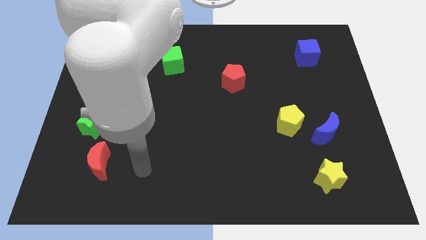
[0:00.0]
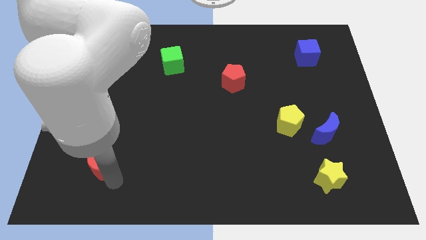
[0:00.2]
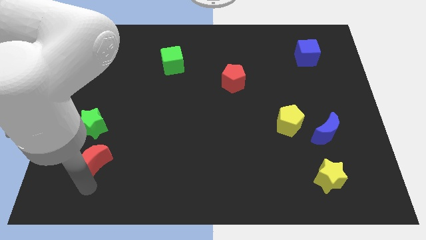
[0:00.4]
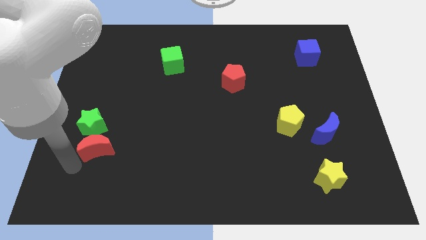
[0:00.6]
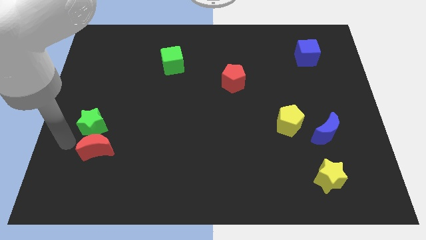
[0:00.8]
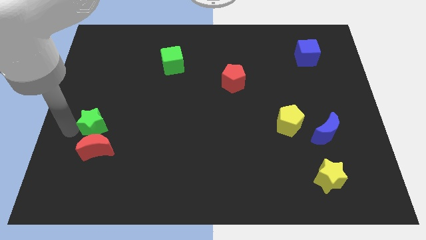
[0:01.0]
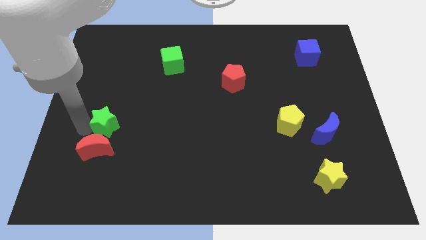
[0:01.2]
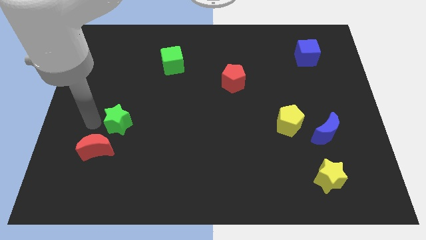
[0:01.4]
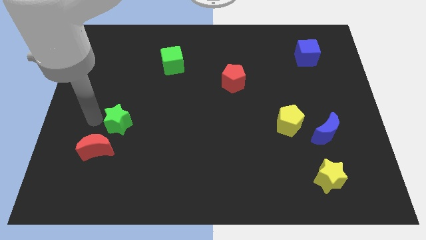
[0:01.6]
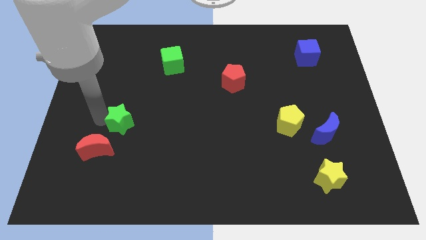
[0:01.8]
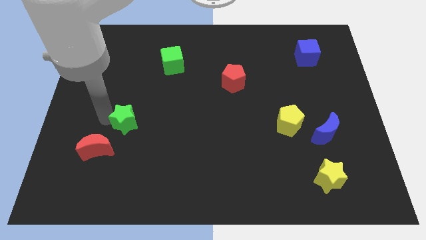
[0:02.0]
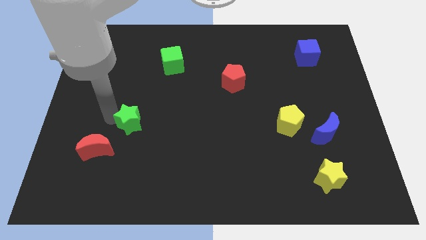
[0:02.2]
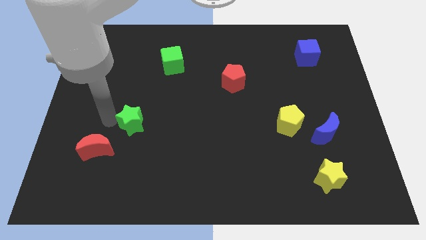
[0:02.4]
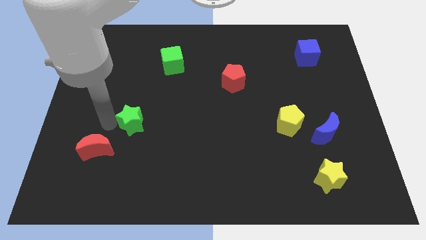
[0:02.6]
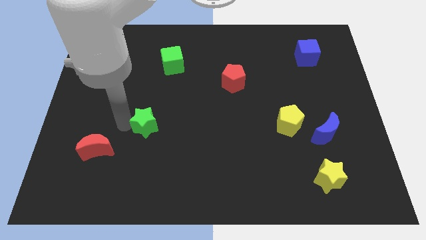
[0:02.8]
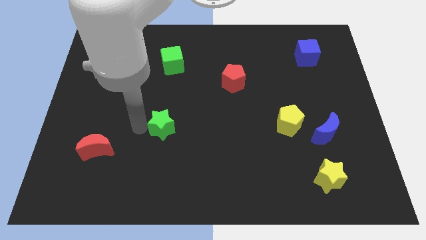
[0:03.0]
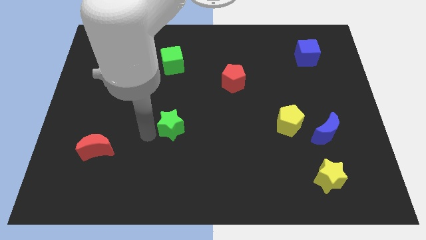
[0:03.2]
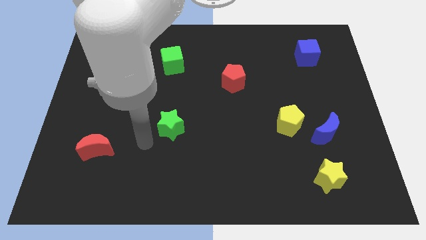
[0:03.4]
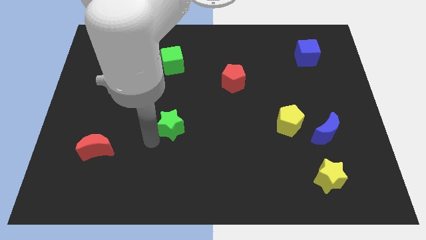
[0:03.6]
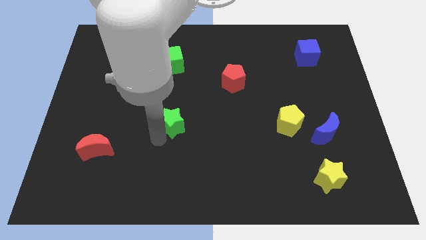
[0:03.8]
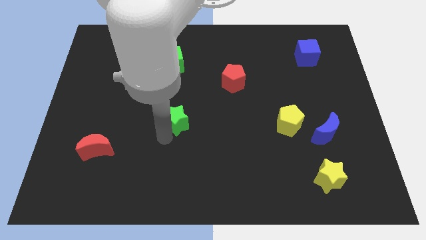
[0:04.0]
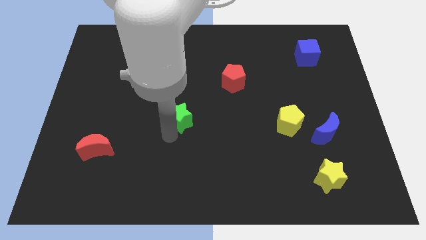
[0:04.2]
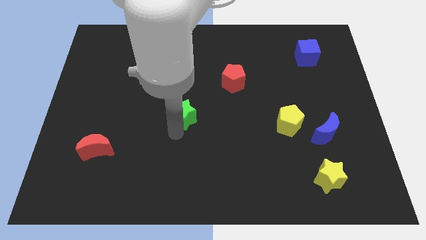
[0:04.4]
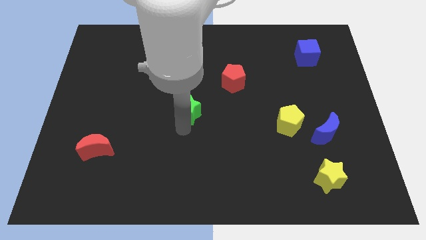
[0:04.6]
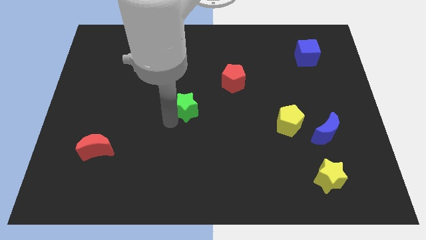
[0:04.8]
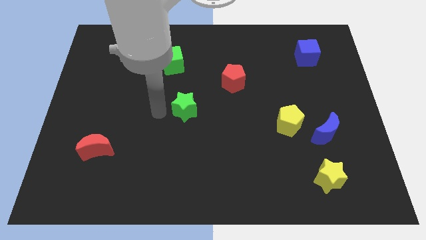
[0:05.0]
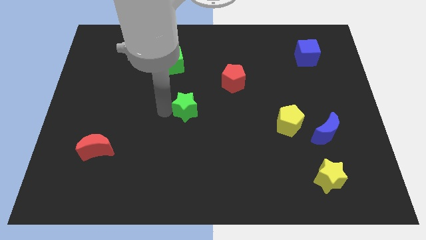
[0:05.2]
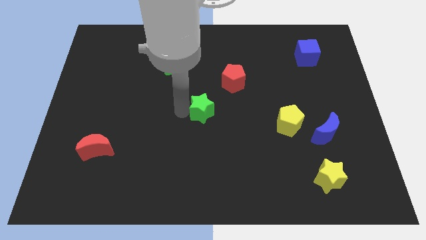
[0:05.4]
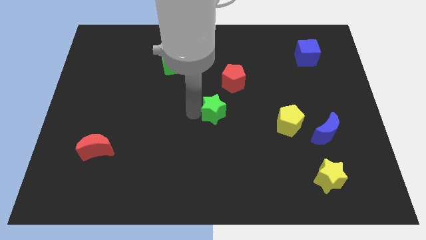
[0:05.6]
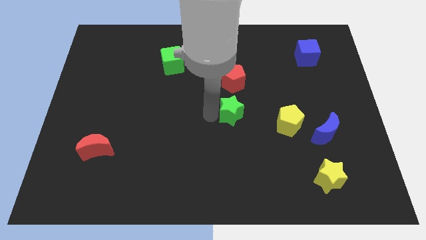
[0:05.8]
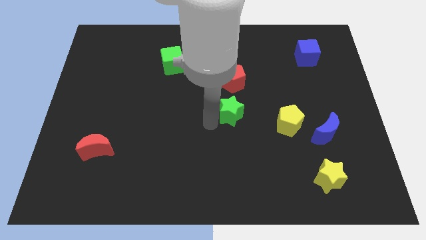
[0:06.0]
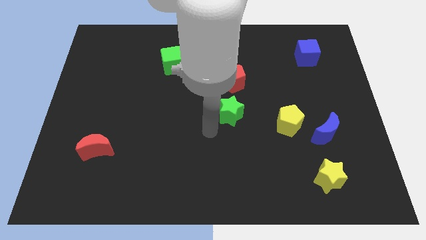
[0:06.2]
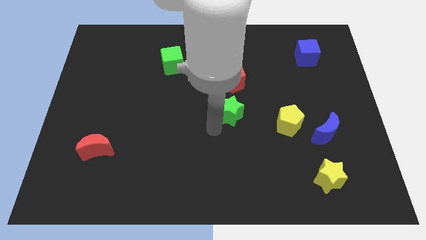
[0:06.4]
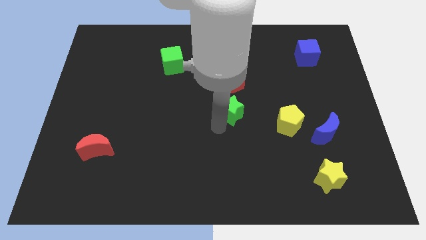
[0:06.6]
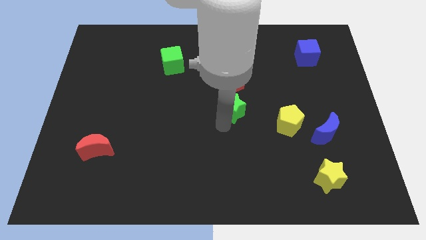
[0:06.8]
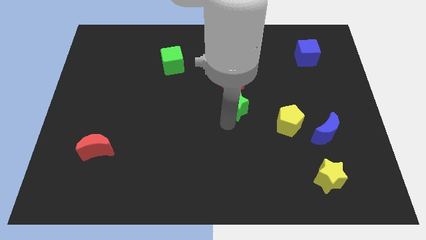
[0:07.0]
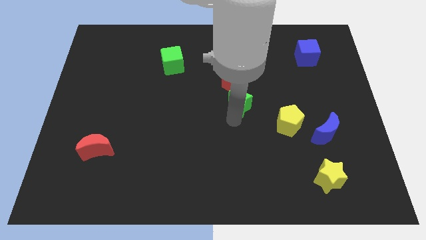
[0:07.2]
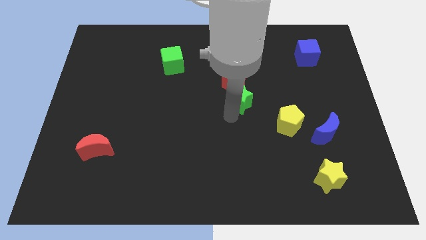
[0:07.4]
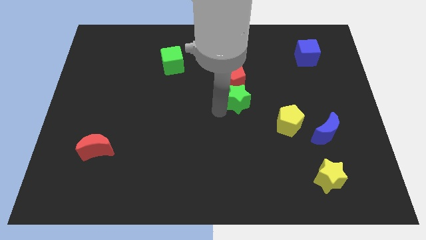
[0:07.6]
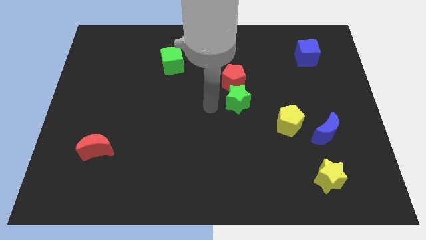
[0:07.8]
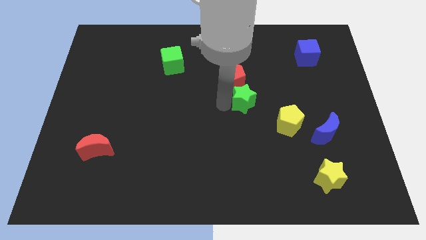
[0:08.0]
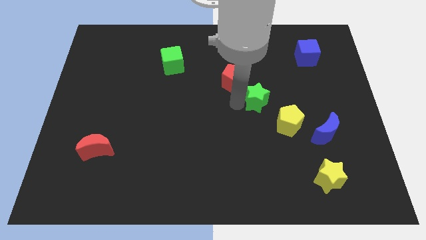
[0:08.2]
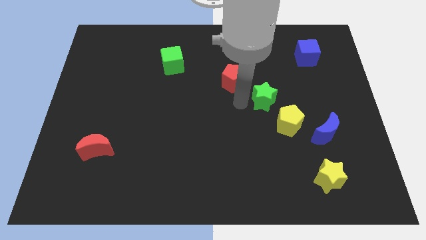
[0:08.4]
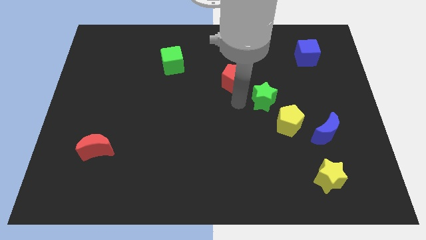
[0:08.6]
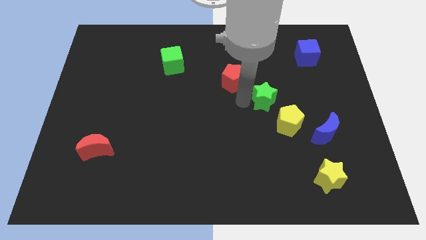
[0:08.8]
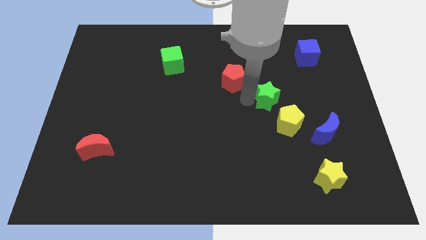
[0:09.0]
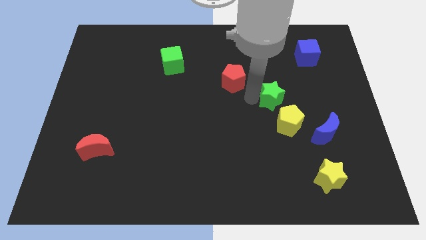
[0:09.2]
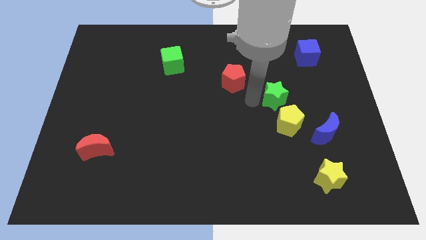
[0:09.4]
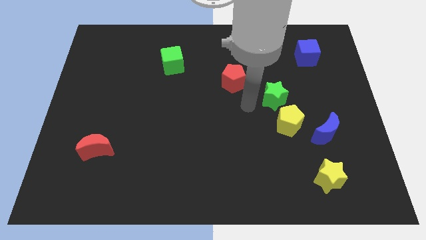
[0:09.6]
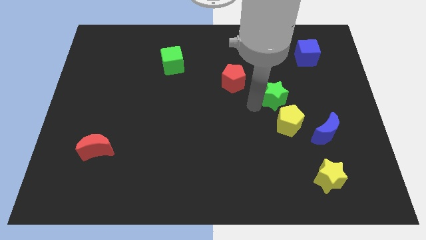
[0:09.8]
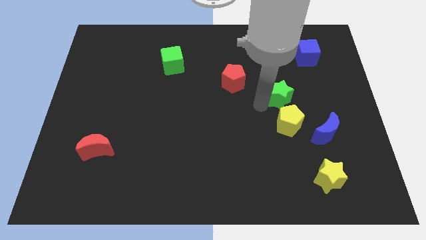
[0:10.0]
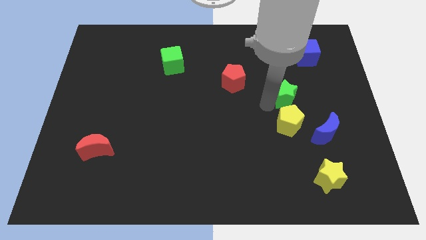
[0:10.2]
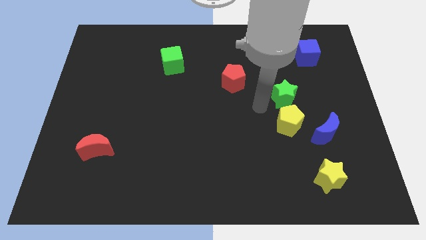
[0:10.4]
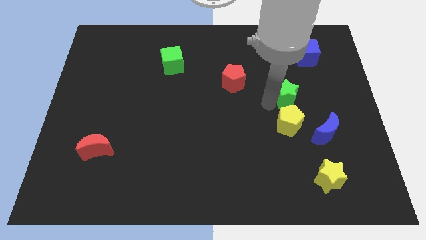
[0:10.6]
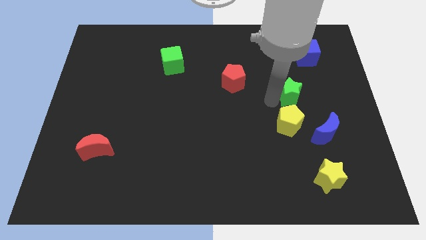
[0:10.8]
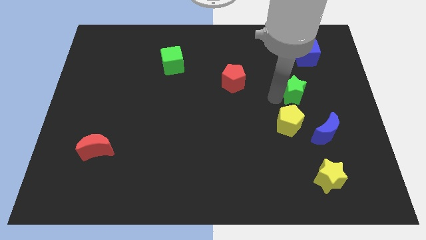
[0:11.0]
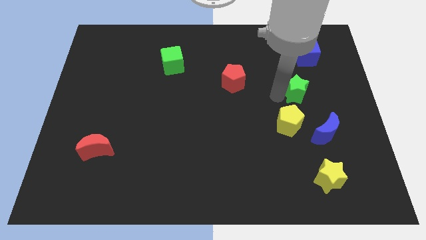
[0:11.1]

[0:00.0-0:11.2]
push the green star below the blue cube

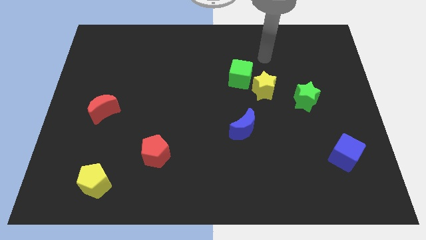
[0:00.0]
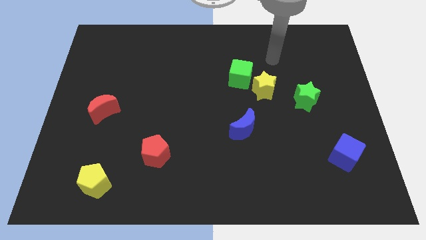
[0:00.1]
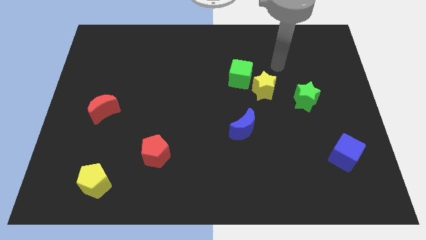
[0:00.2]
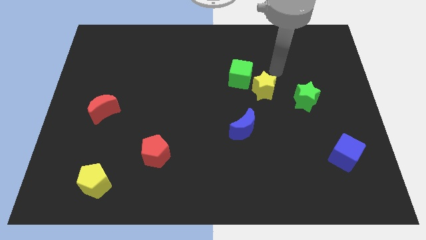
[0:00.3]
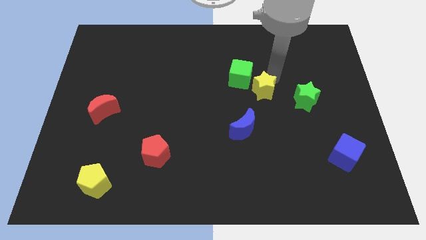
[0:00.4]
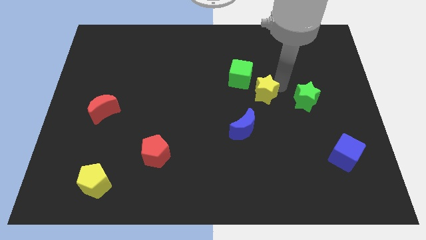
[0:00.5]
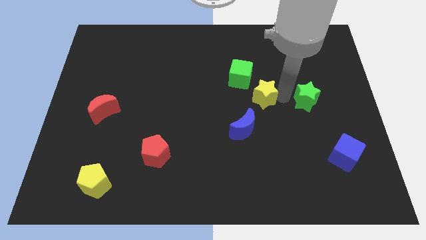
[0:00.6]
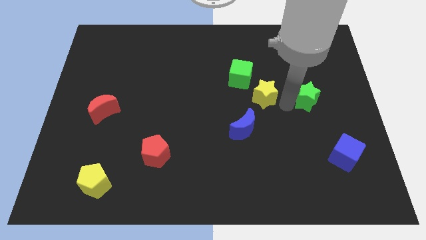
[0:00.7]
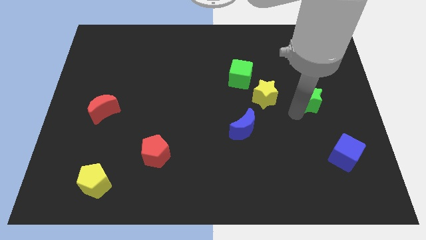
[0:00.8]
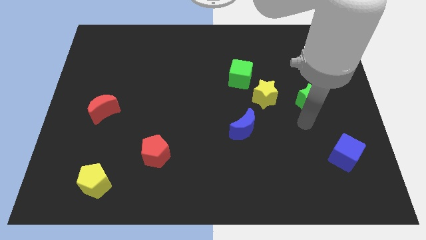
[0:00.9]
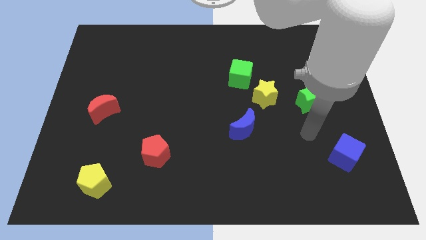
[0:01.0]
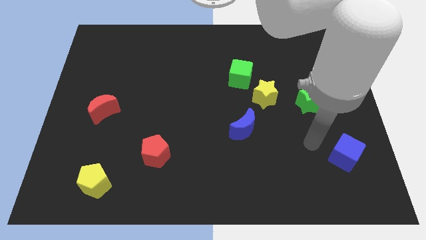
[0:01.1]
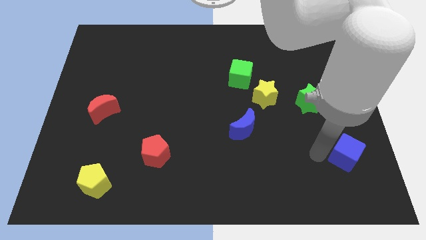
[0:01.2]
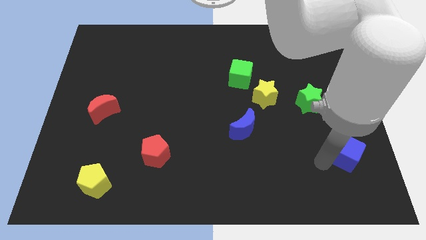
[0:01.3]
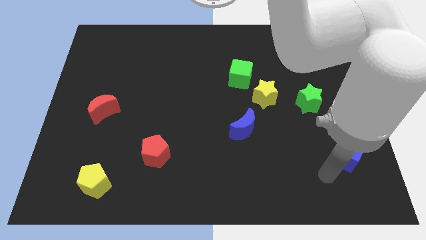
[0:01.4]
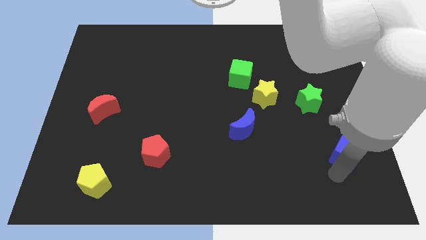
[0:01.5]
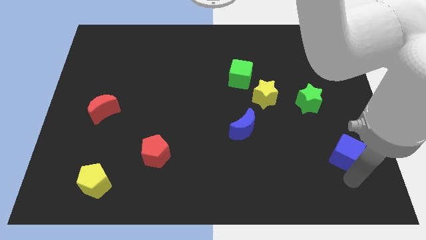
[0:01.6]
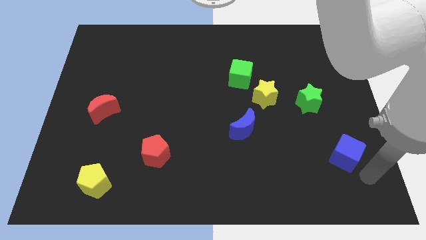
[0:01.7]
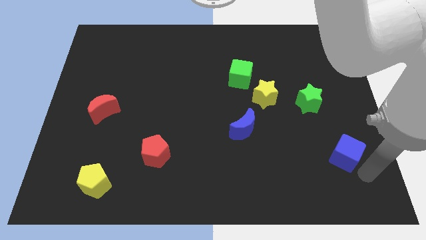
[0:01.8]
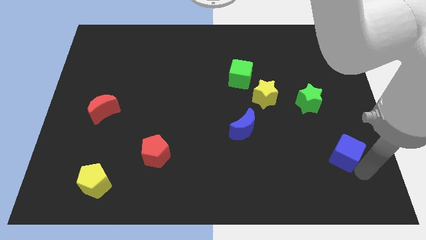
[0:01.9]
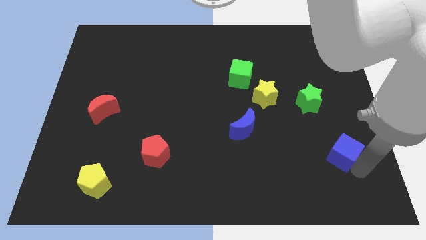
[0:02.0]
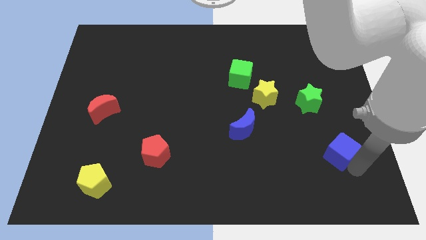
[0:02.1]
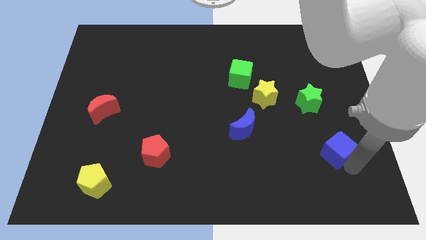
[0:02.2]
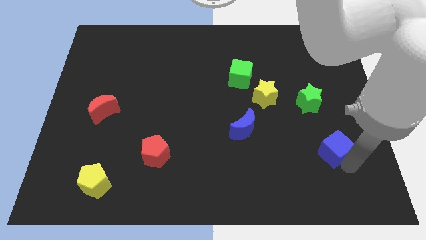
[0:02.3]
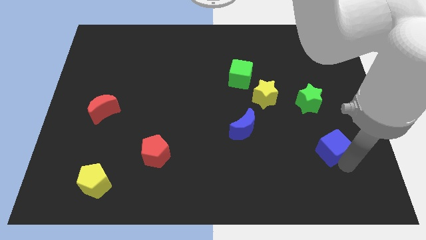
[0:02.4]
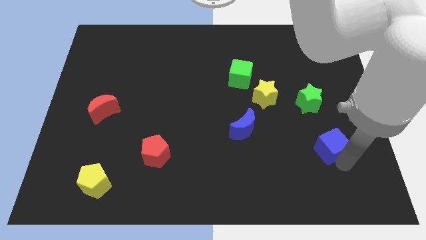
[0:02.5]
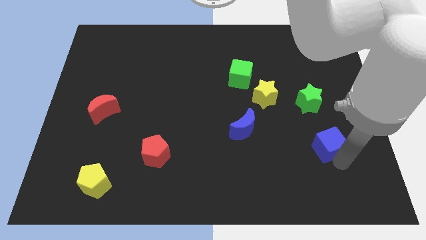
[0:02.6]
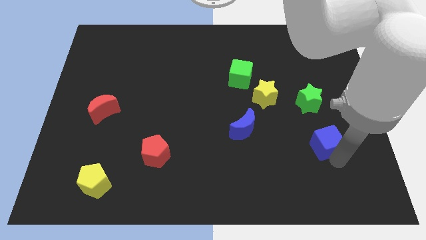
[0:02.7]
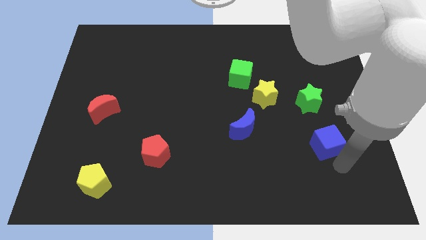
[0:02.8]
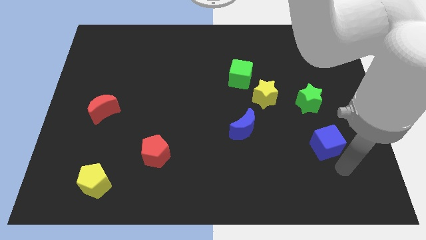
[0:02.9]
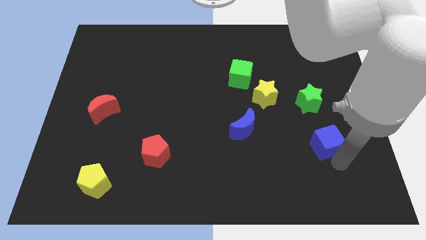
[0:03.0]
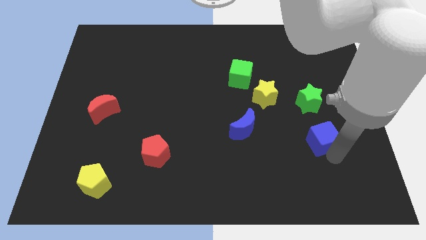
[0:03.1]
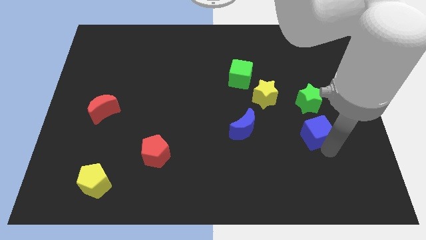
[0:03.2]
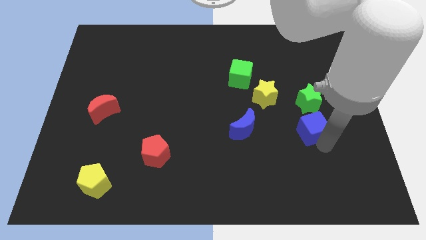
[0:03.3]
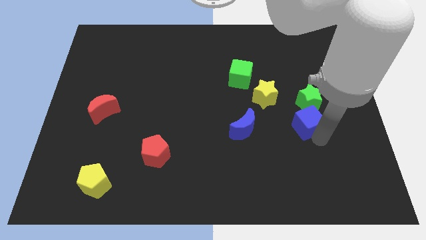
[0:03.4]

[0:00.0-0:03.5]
put the blue cube to the bottom right side of the yellow star
